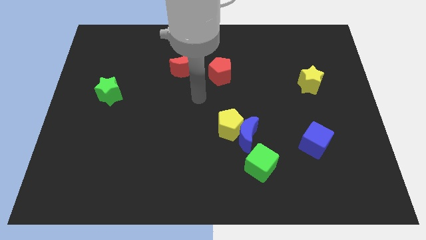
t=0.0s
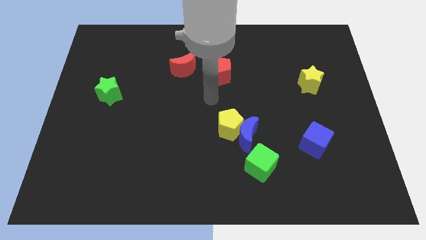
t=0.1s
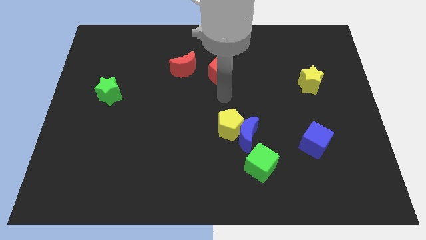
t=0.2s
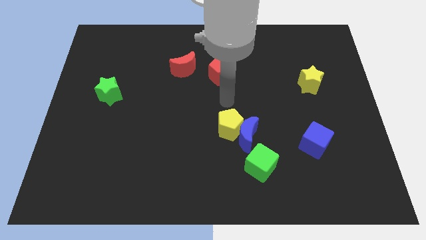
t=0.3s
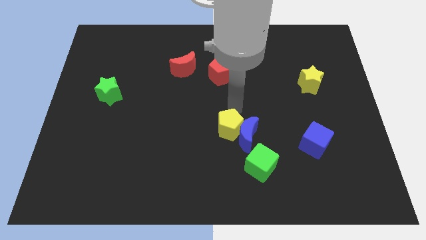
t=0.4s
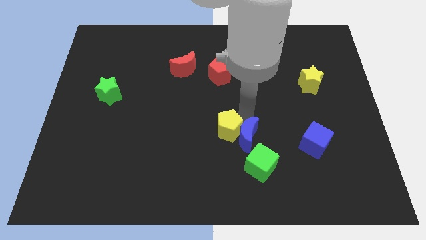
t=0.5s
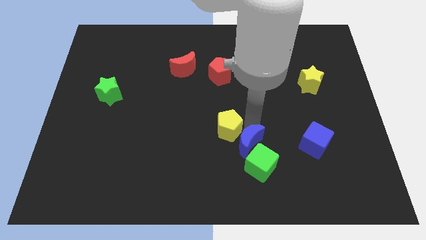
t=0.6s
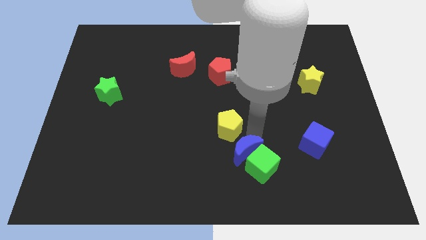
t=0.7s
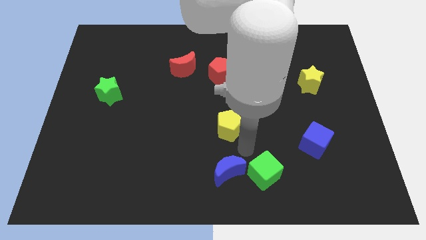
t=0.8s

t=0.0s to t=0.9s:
separate the yellow pentagon from the blue moon

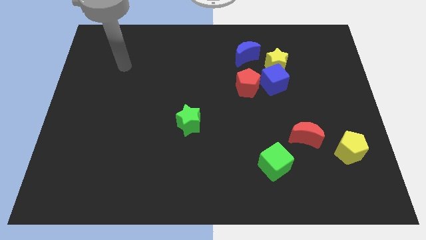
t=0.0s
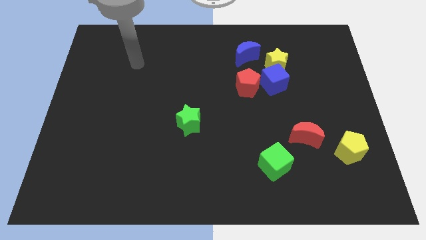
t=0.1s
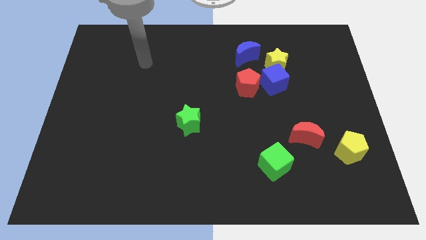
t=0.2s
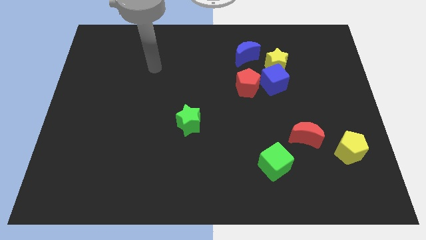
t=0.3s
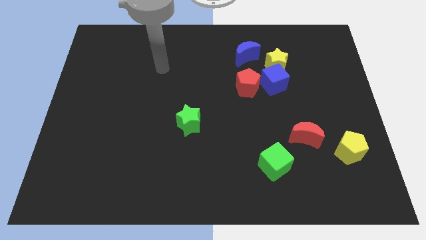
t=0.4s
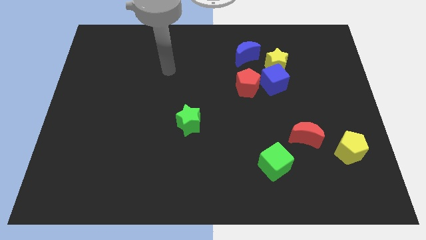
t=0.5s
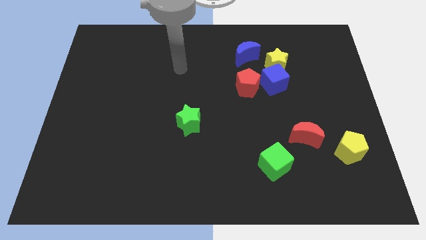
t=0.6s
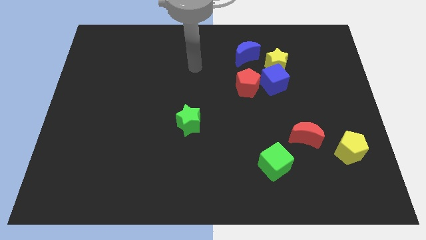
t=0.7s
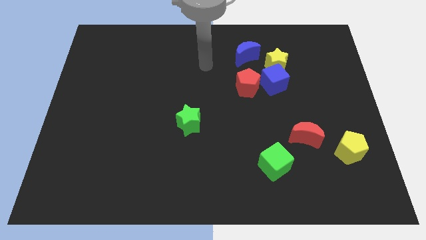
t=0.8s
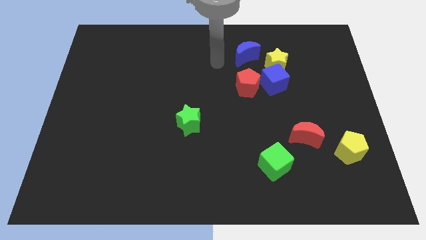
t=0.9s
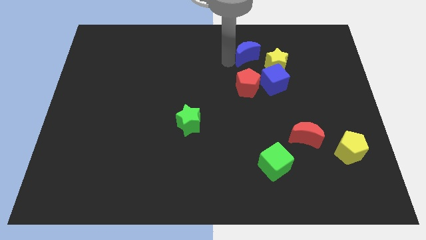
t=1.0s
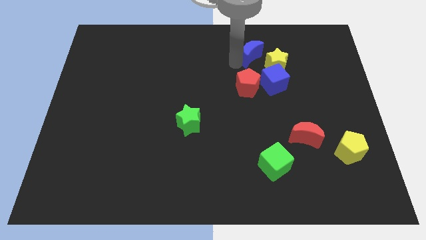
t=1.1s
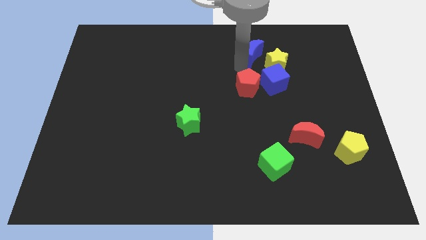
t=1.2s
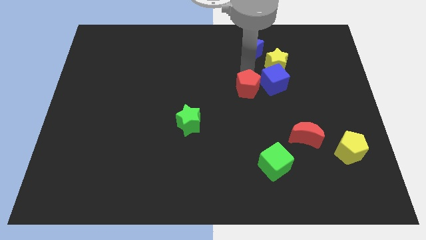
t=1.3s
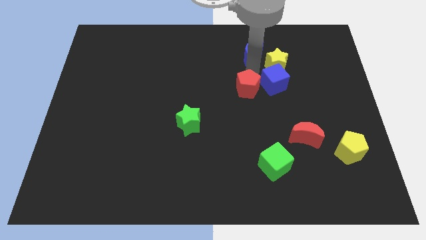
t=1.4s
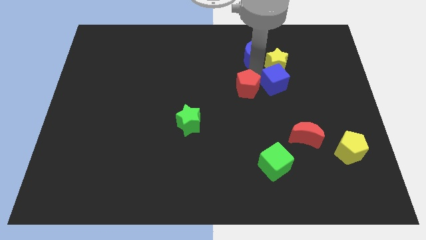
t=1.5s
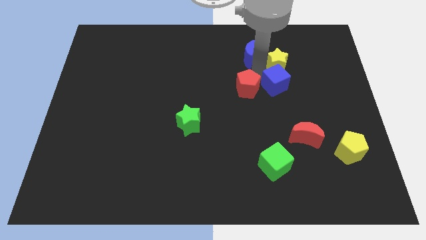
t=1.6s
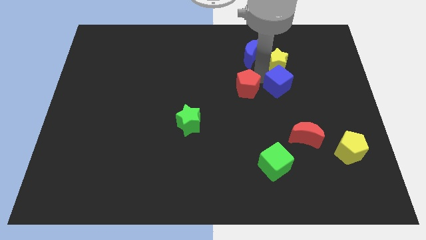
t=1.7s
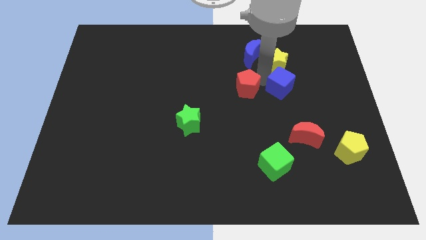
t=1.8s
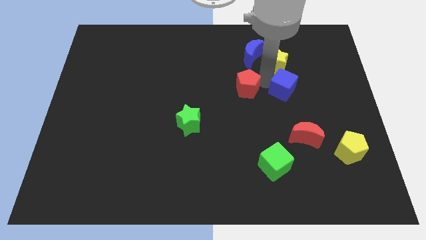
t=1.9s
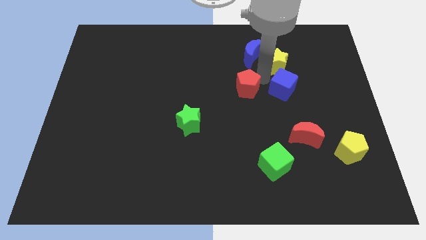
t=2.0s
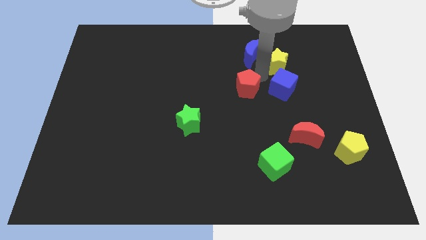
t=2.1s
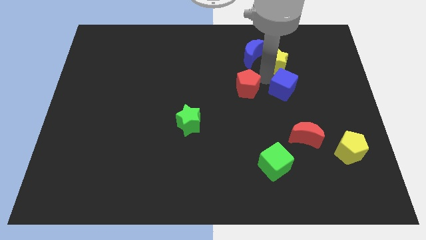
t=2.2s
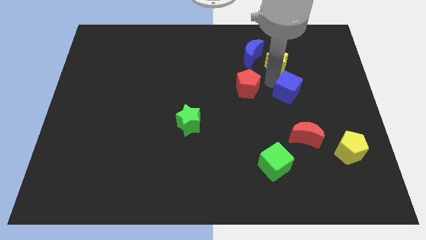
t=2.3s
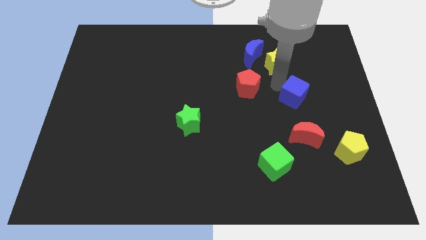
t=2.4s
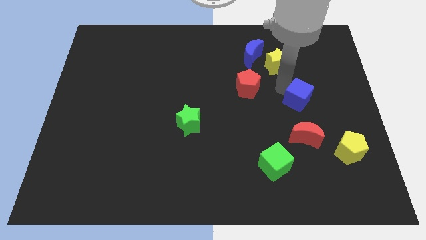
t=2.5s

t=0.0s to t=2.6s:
separate the blue cube from the yellow star and red pentagon

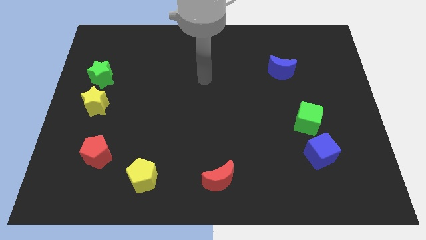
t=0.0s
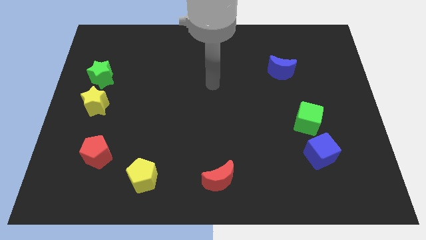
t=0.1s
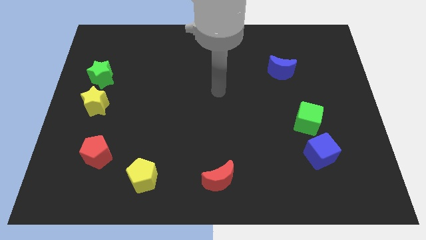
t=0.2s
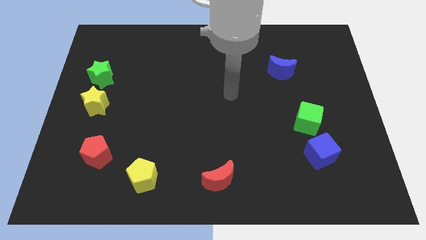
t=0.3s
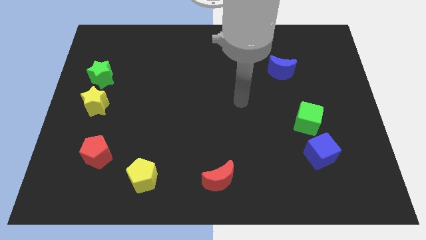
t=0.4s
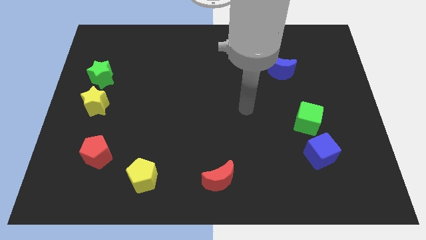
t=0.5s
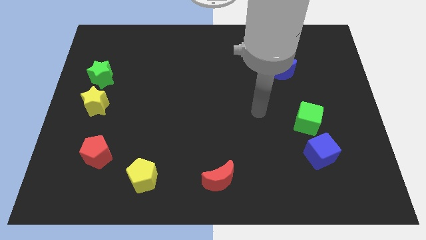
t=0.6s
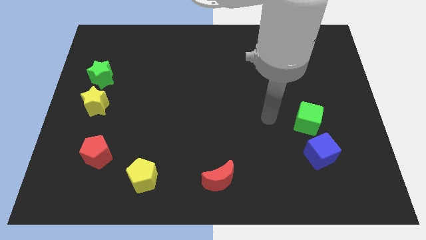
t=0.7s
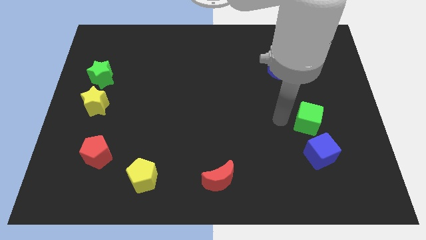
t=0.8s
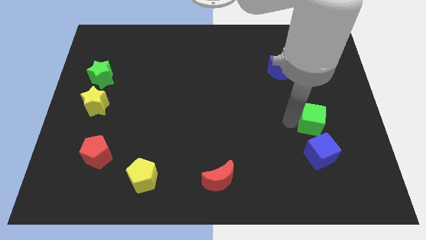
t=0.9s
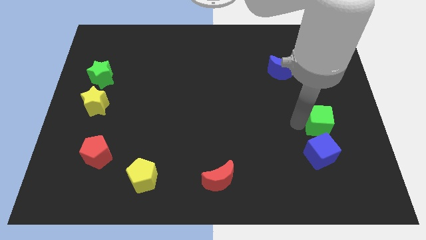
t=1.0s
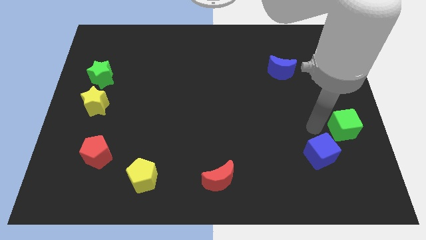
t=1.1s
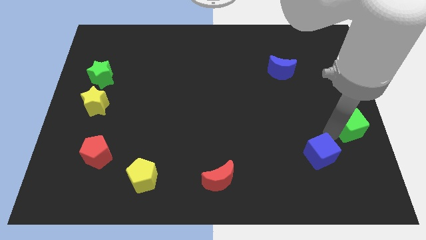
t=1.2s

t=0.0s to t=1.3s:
separate the blue cube from the green cube

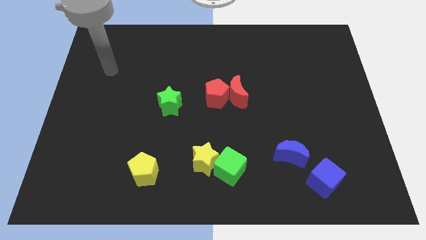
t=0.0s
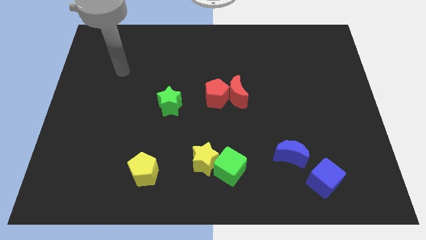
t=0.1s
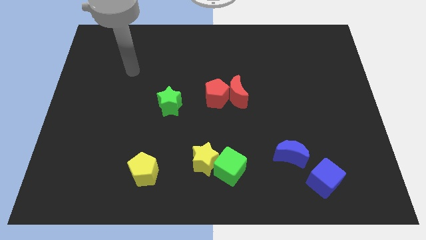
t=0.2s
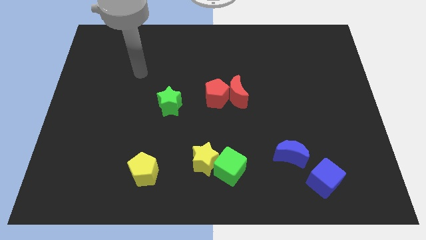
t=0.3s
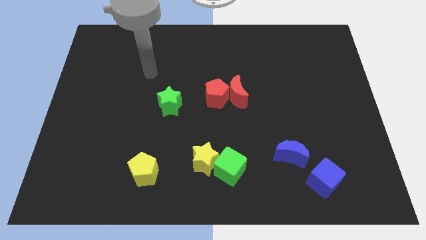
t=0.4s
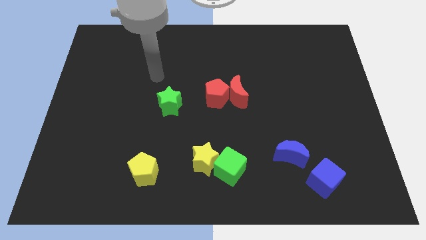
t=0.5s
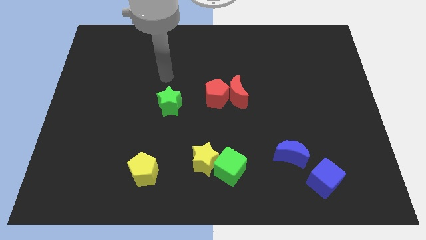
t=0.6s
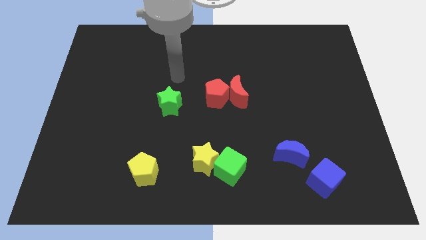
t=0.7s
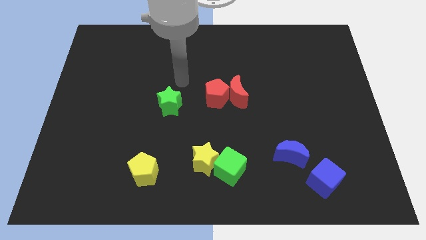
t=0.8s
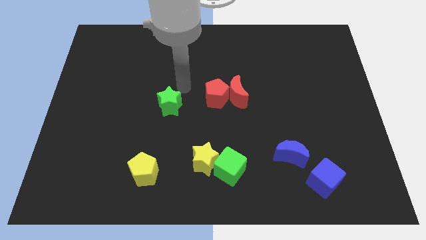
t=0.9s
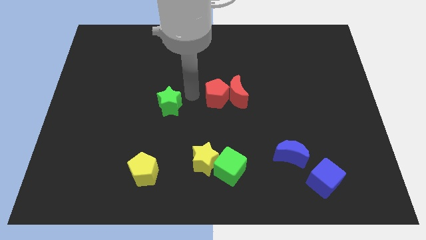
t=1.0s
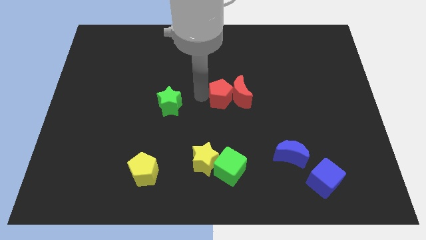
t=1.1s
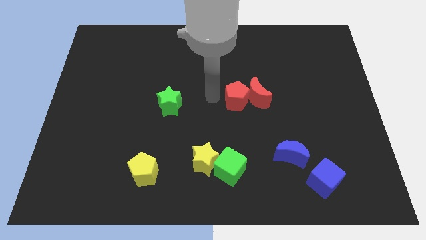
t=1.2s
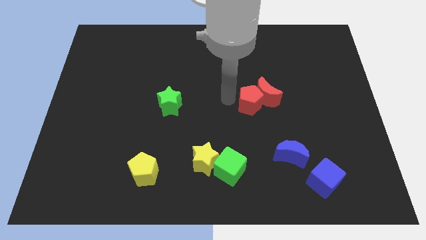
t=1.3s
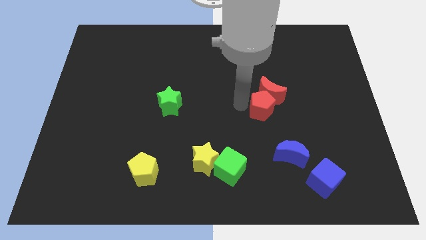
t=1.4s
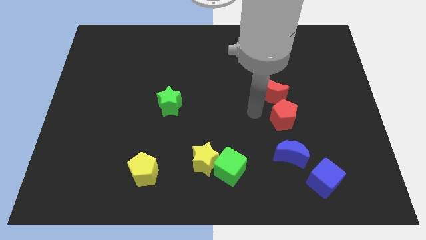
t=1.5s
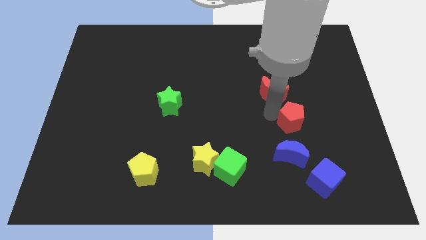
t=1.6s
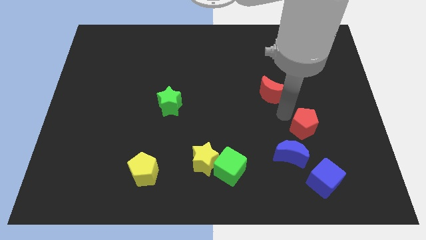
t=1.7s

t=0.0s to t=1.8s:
pull the red moon apart from the red pentagon

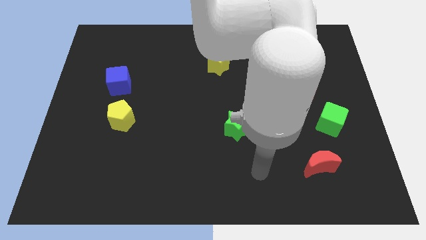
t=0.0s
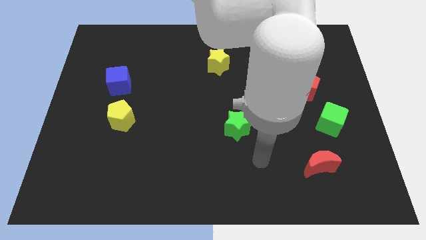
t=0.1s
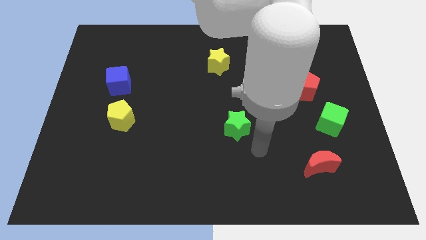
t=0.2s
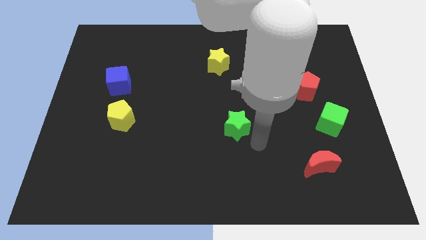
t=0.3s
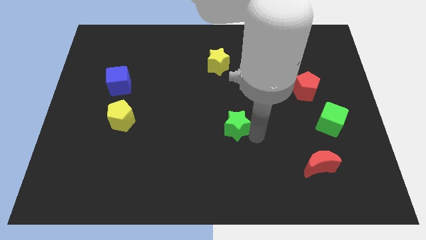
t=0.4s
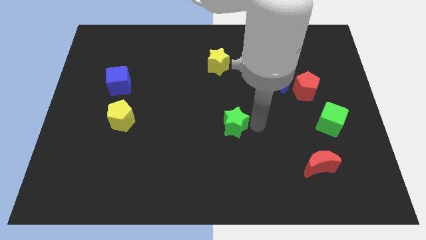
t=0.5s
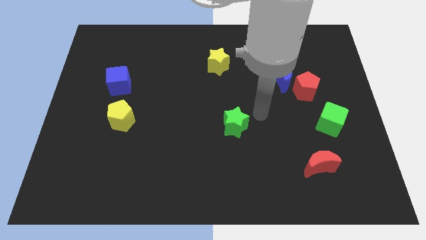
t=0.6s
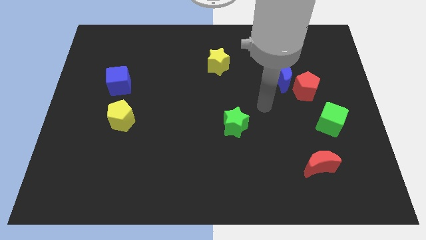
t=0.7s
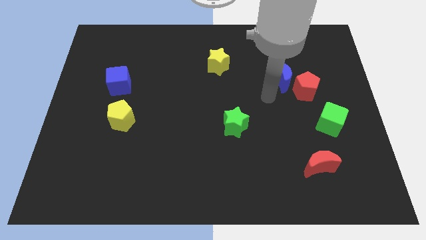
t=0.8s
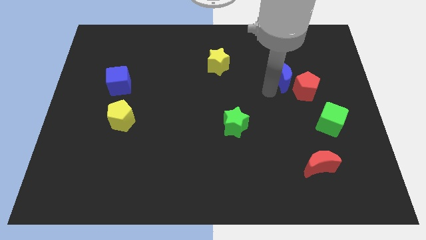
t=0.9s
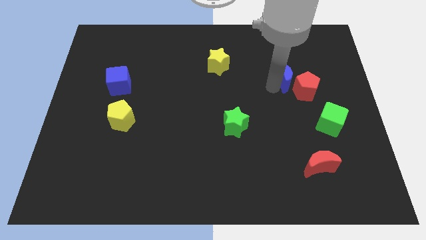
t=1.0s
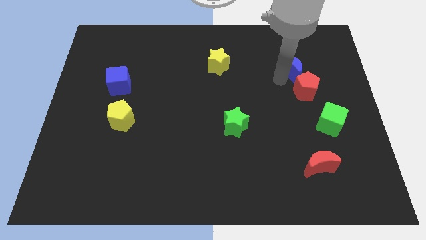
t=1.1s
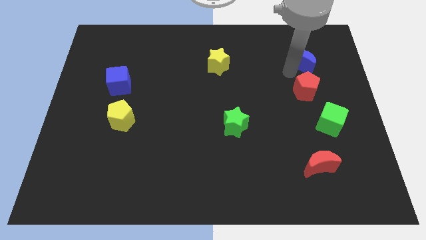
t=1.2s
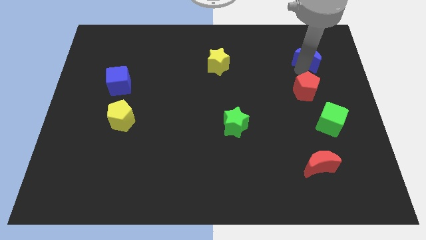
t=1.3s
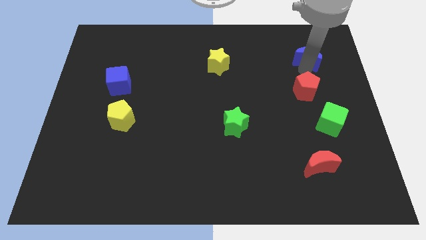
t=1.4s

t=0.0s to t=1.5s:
move the red pentagon away from the blue moon

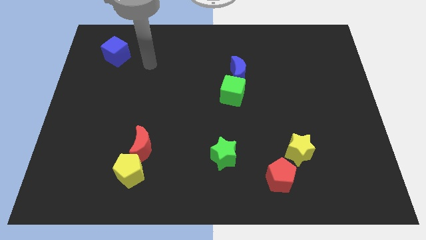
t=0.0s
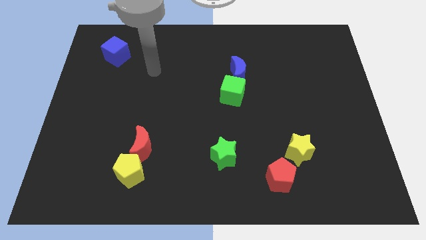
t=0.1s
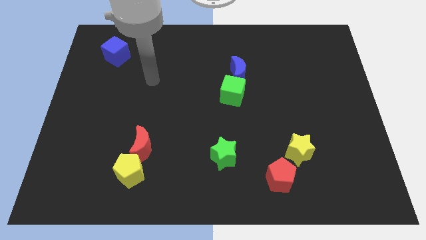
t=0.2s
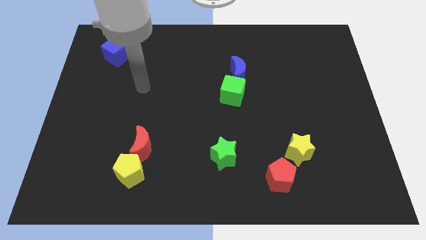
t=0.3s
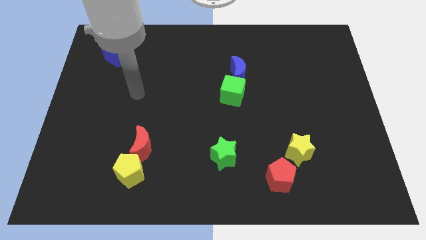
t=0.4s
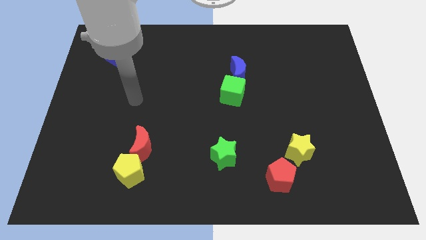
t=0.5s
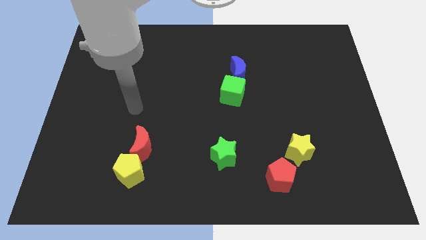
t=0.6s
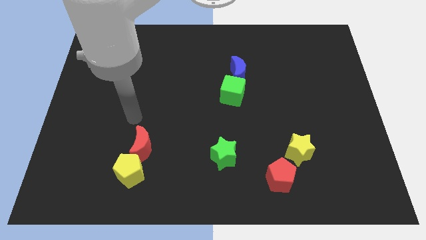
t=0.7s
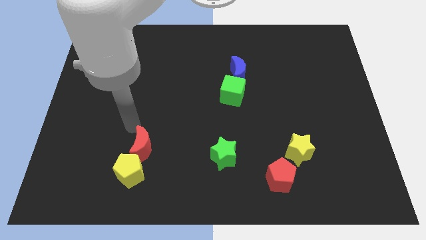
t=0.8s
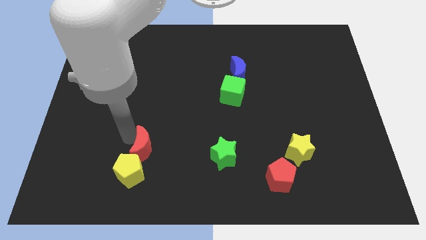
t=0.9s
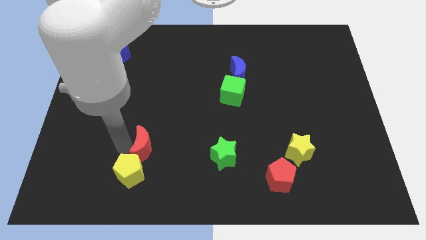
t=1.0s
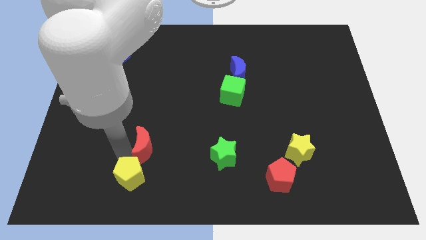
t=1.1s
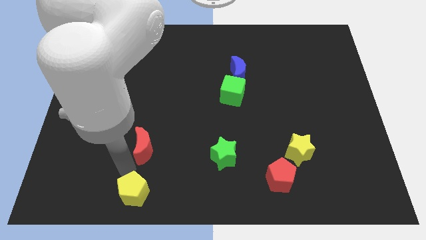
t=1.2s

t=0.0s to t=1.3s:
move the red moon away from the yellow pentagon
